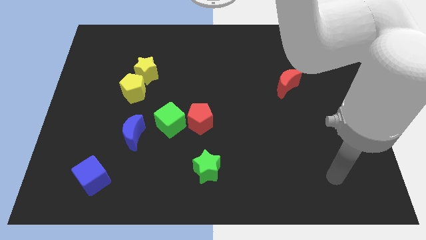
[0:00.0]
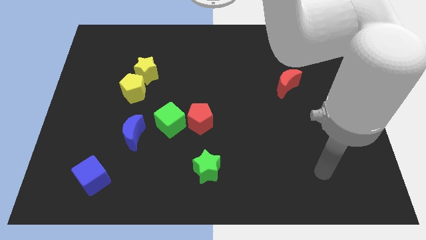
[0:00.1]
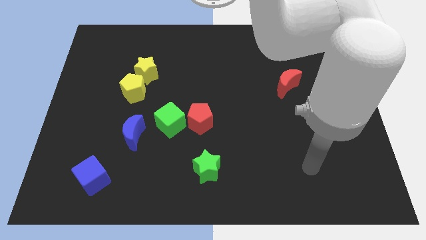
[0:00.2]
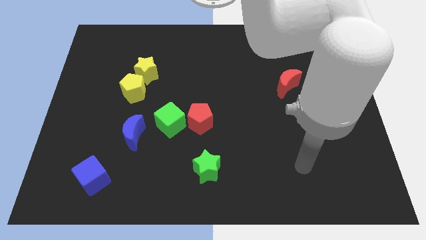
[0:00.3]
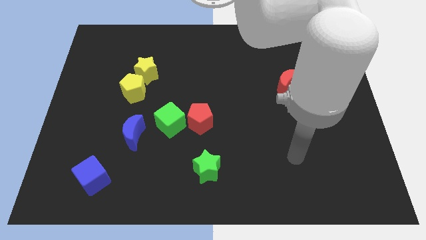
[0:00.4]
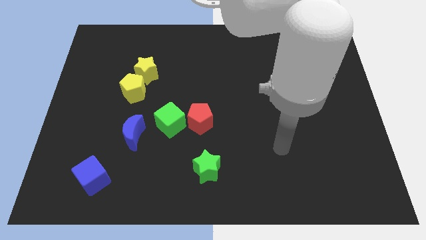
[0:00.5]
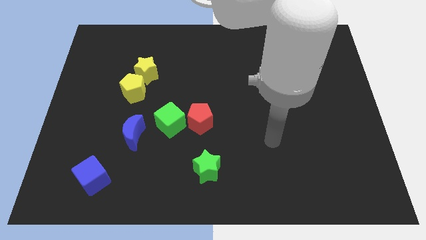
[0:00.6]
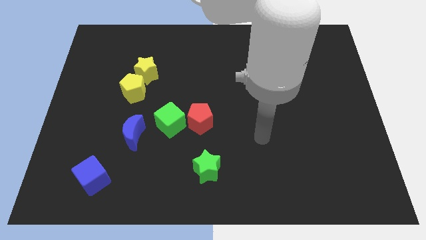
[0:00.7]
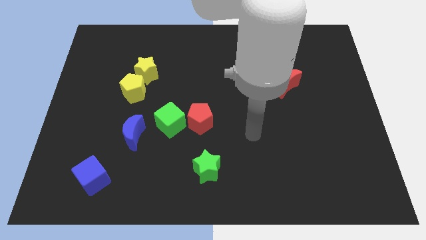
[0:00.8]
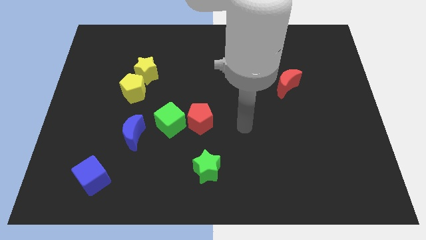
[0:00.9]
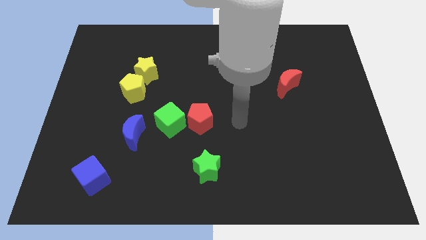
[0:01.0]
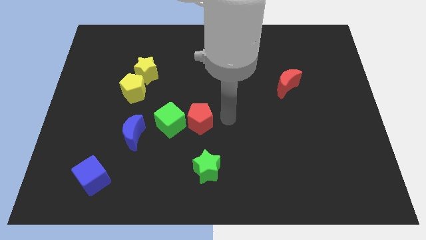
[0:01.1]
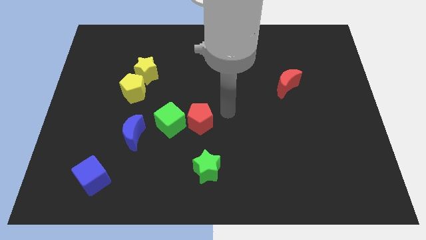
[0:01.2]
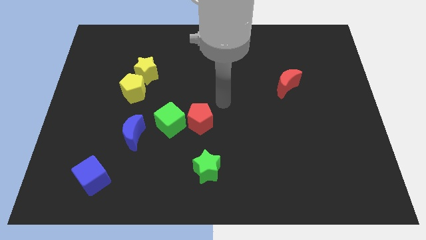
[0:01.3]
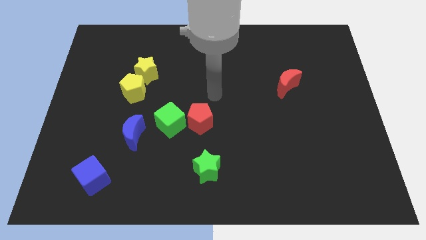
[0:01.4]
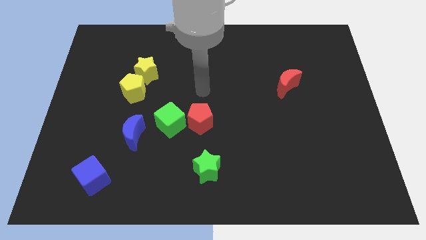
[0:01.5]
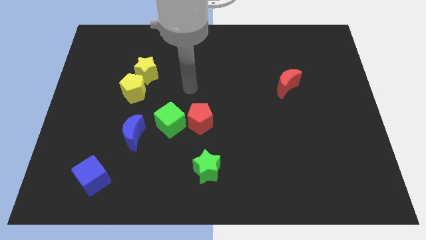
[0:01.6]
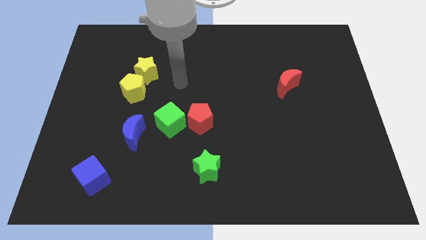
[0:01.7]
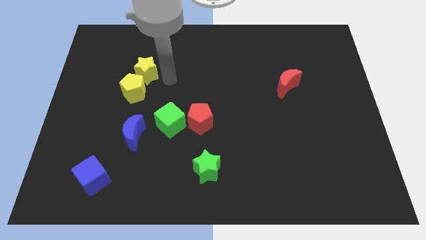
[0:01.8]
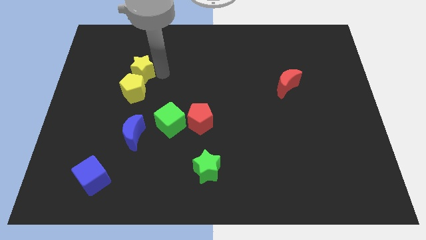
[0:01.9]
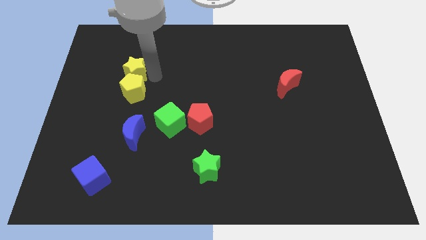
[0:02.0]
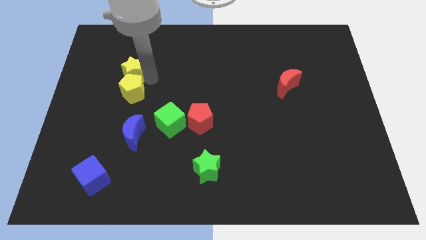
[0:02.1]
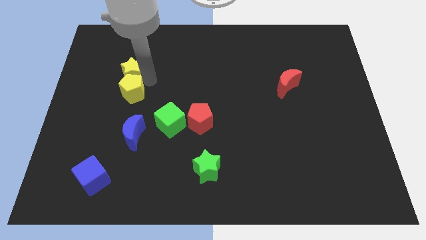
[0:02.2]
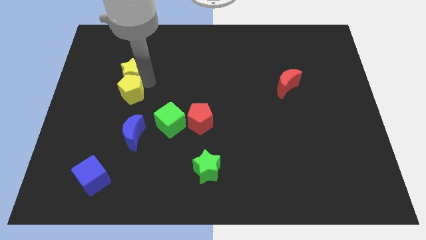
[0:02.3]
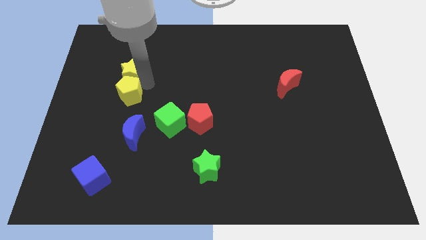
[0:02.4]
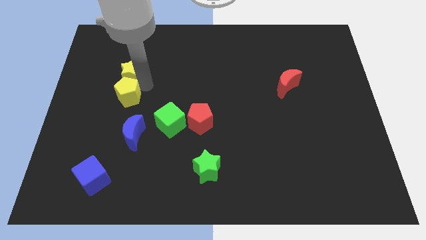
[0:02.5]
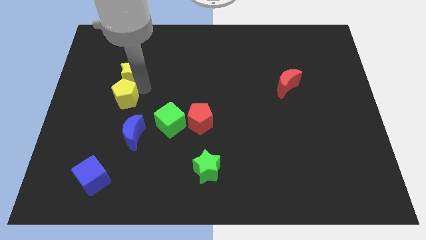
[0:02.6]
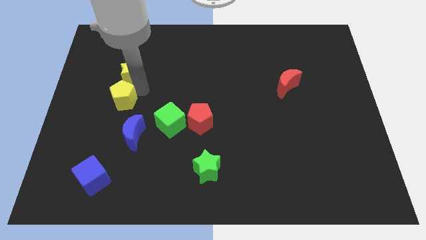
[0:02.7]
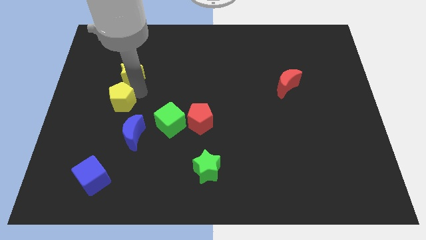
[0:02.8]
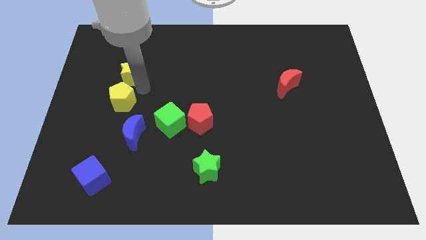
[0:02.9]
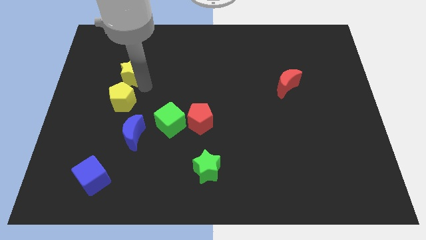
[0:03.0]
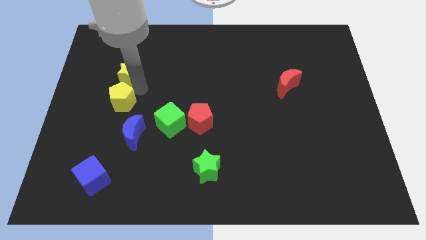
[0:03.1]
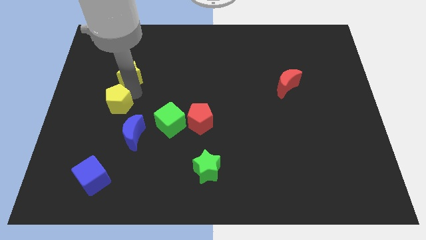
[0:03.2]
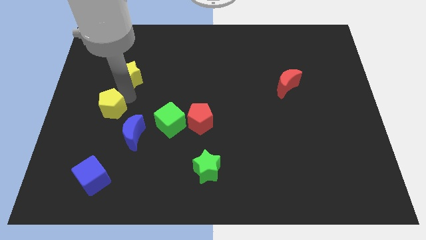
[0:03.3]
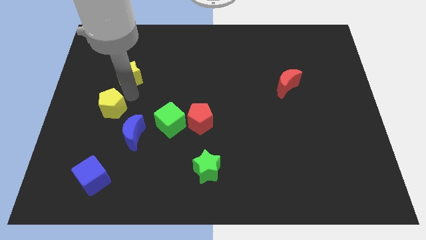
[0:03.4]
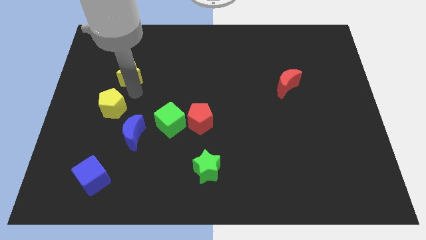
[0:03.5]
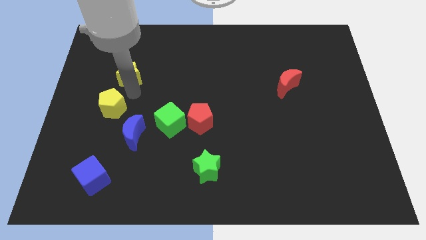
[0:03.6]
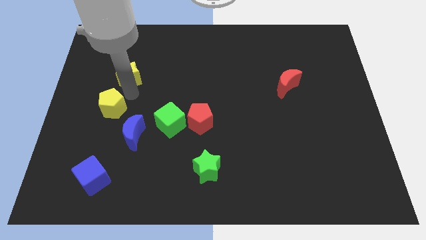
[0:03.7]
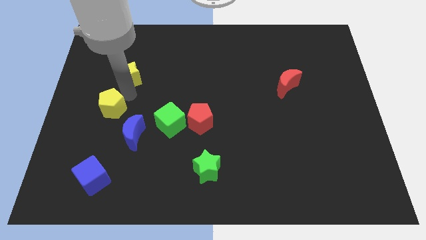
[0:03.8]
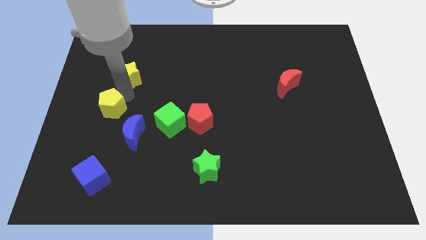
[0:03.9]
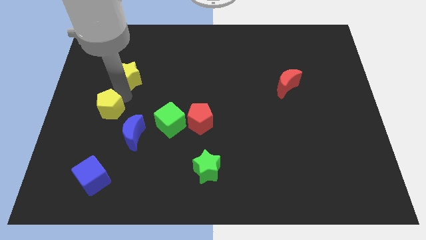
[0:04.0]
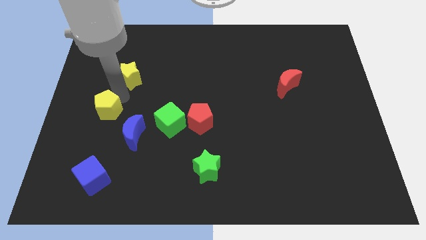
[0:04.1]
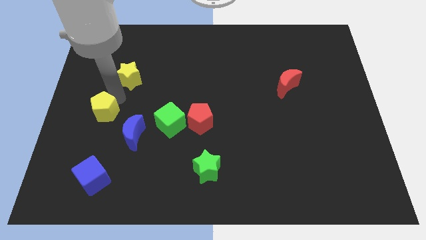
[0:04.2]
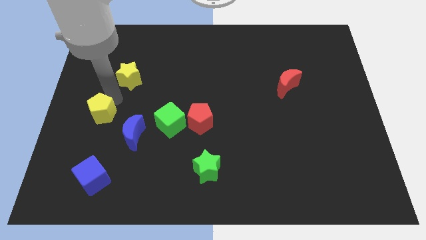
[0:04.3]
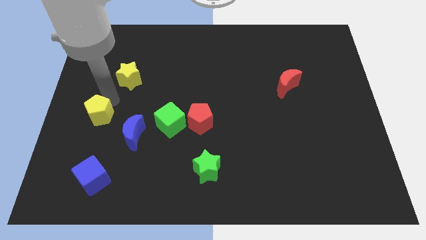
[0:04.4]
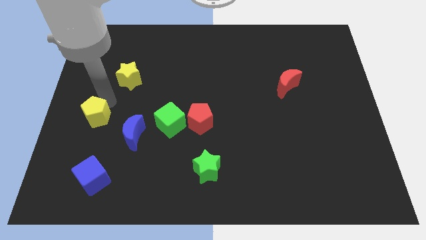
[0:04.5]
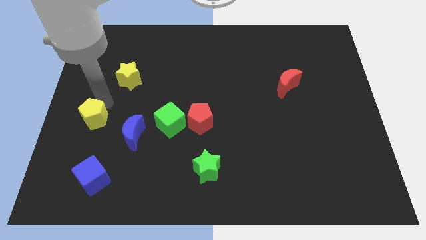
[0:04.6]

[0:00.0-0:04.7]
move the yellow pentagon to the left side of the blue moon

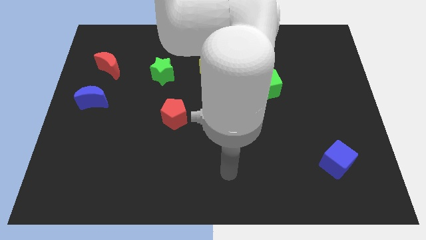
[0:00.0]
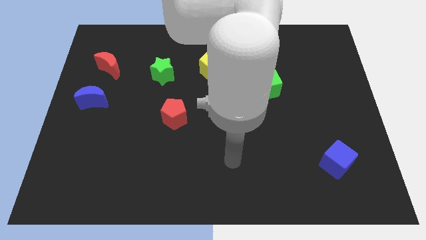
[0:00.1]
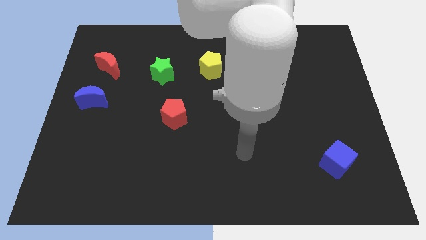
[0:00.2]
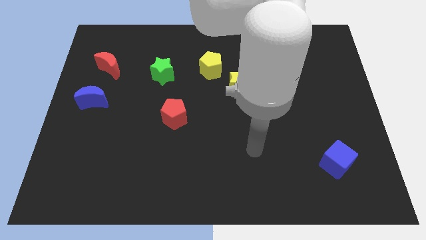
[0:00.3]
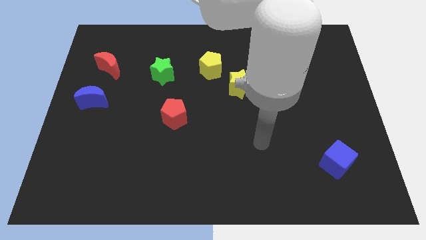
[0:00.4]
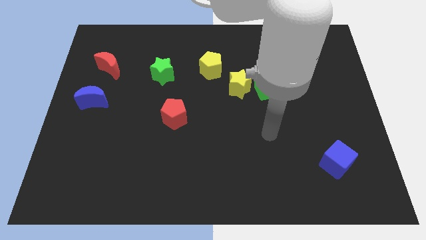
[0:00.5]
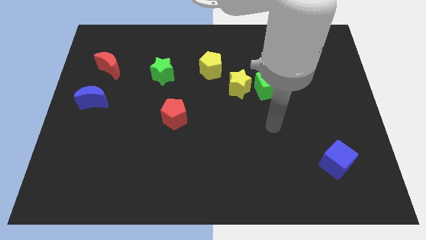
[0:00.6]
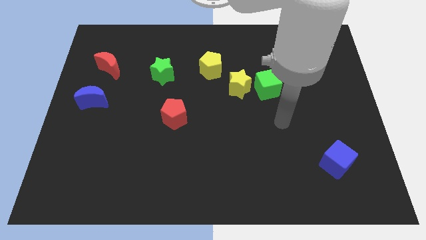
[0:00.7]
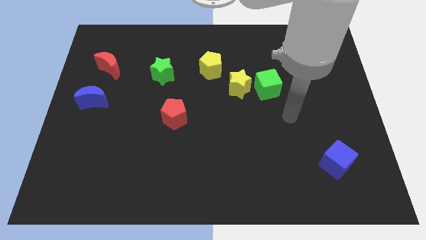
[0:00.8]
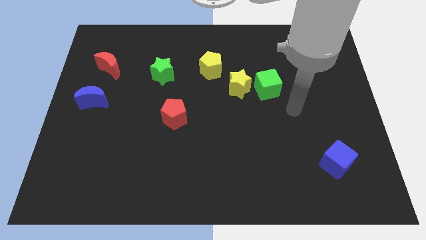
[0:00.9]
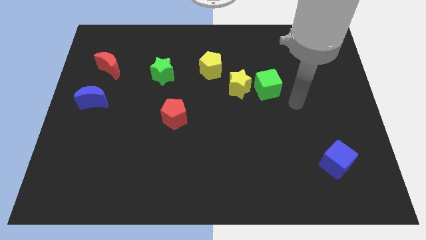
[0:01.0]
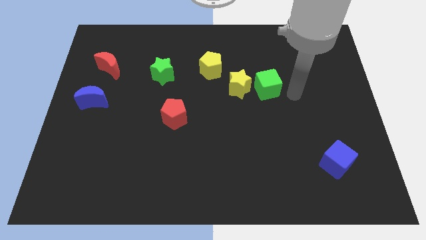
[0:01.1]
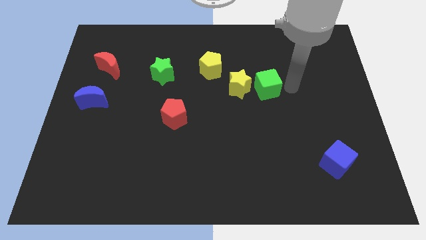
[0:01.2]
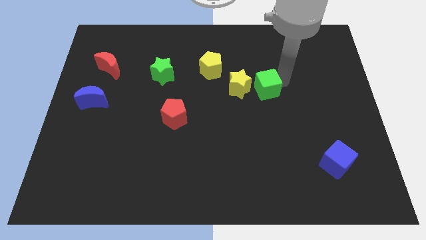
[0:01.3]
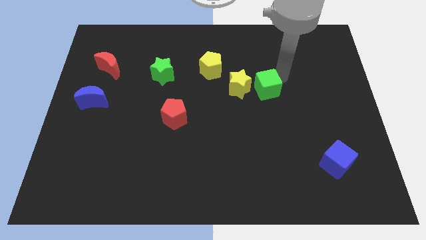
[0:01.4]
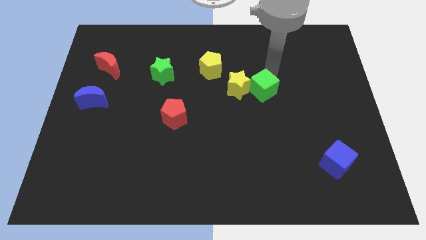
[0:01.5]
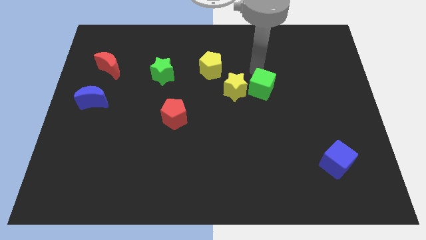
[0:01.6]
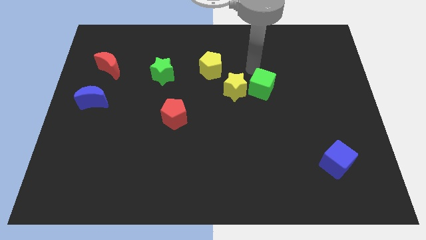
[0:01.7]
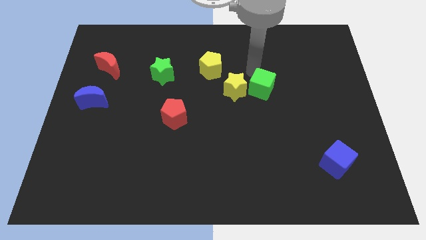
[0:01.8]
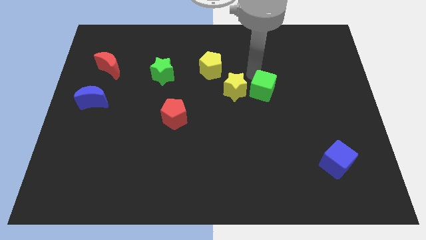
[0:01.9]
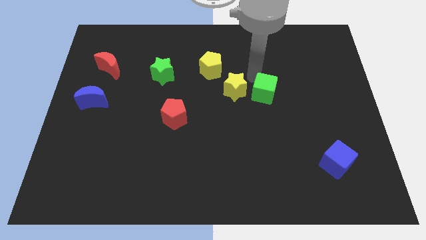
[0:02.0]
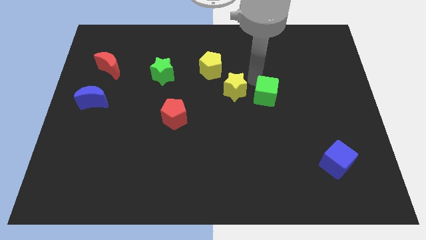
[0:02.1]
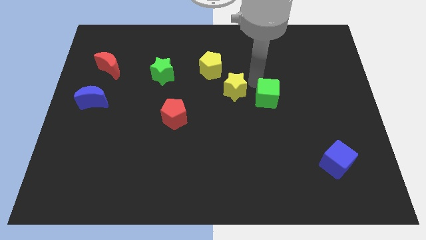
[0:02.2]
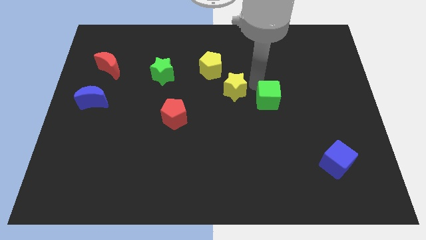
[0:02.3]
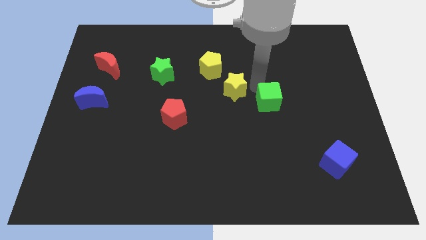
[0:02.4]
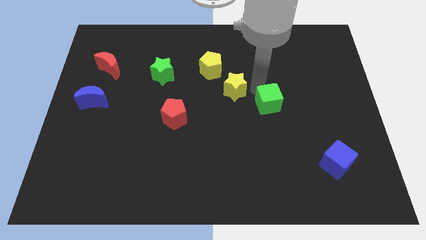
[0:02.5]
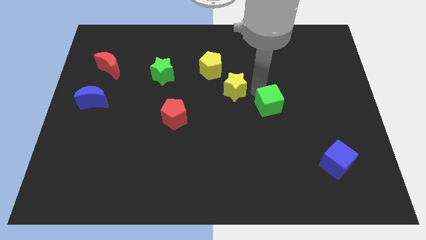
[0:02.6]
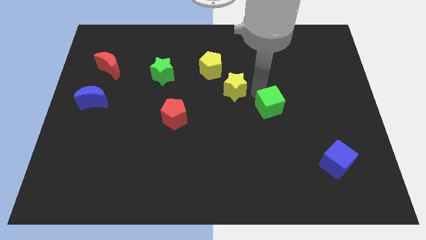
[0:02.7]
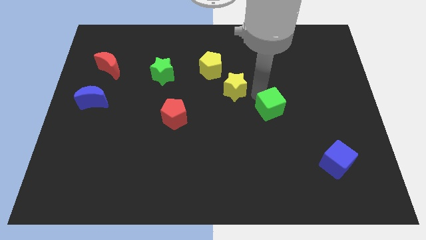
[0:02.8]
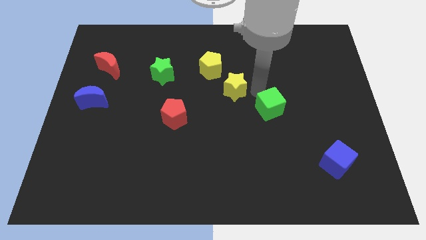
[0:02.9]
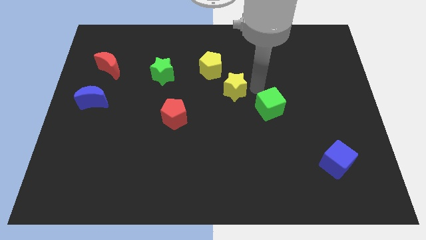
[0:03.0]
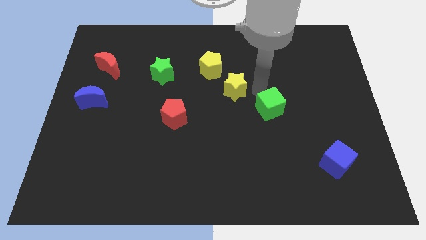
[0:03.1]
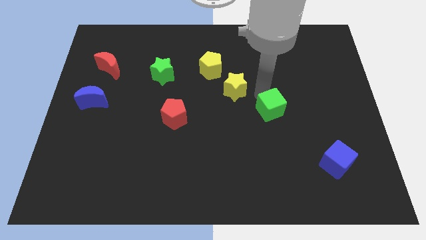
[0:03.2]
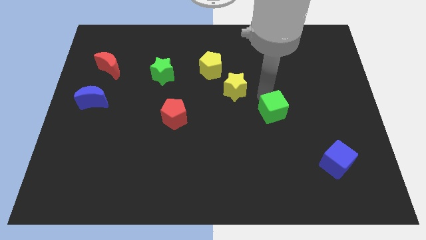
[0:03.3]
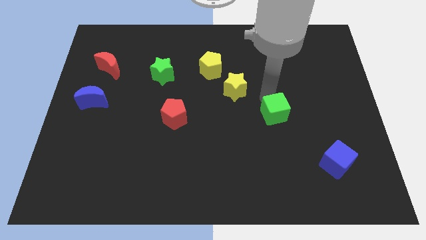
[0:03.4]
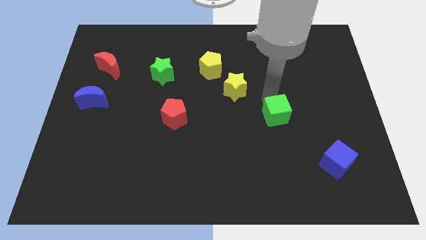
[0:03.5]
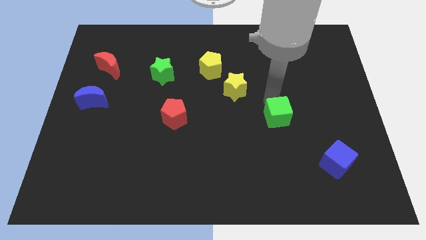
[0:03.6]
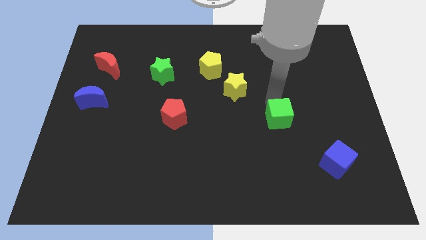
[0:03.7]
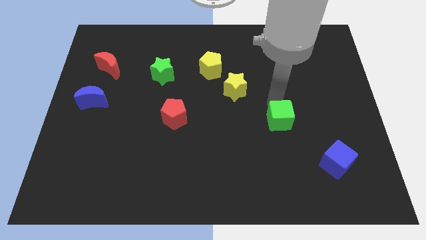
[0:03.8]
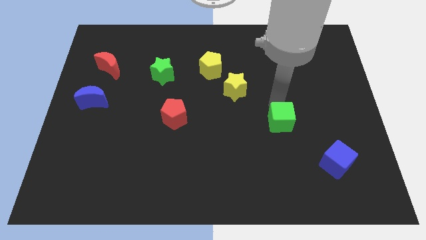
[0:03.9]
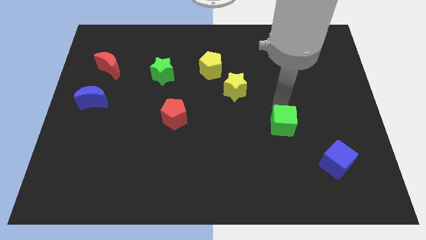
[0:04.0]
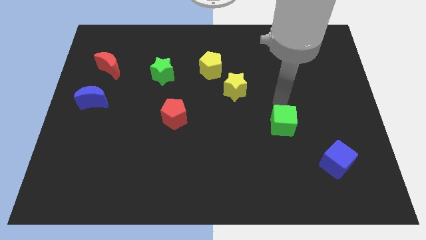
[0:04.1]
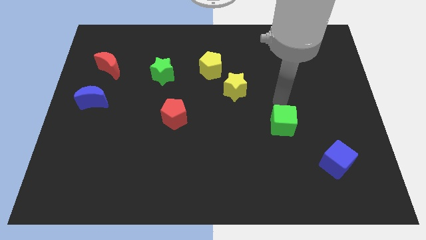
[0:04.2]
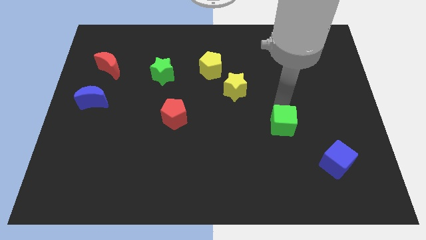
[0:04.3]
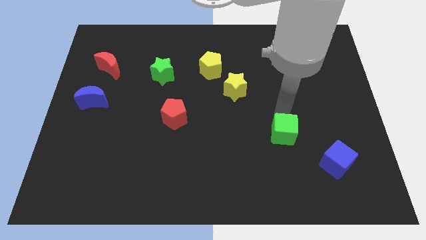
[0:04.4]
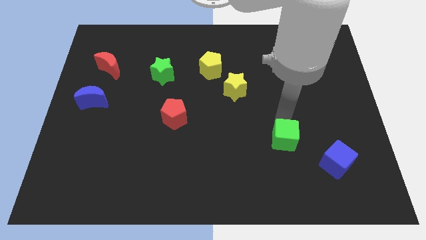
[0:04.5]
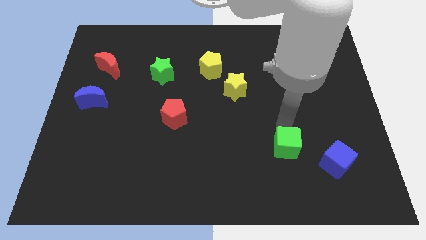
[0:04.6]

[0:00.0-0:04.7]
put the green cube to the left side of the blue cube
